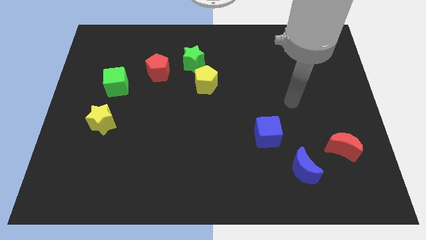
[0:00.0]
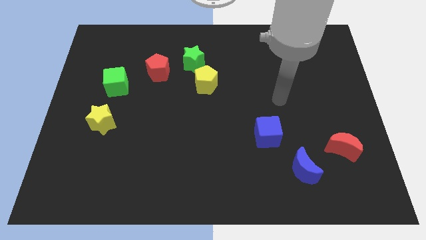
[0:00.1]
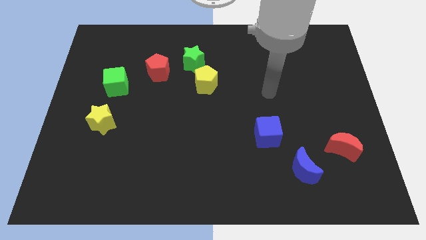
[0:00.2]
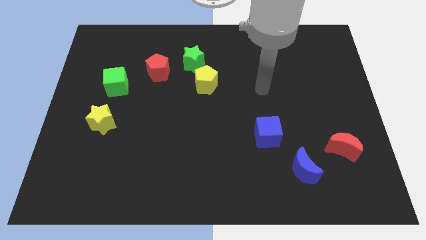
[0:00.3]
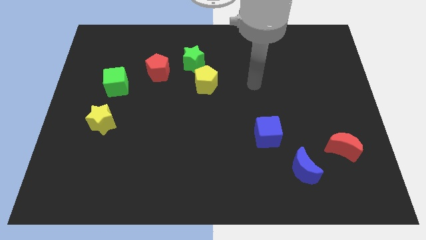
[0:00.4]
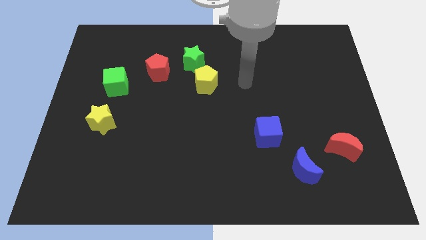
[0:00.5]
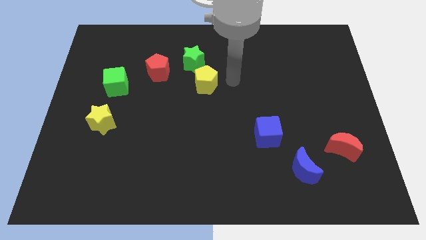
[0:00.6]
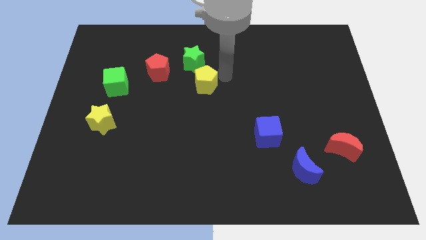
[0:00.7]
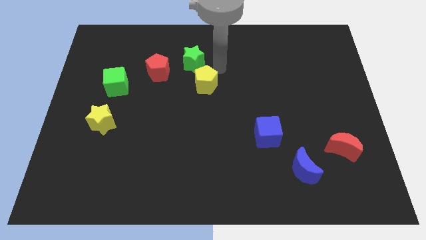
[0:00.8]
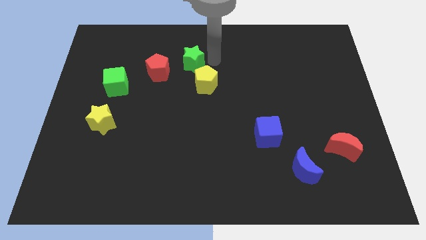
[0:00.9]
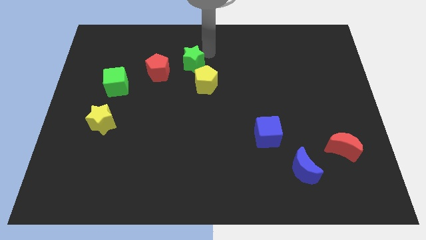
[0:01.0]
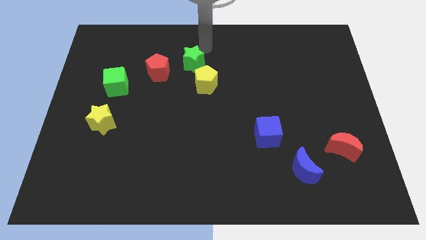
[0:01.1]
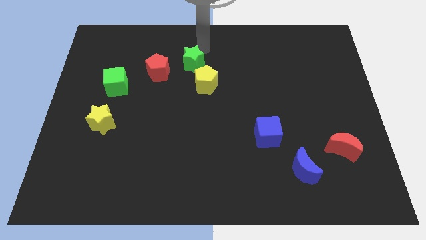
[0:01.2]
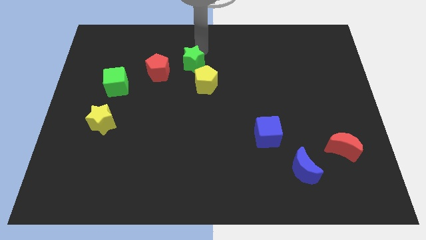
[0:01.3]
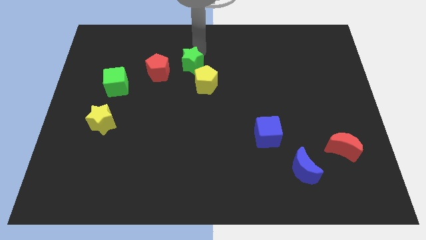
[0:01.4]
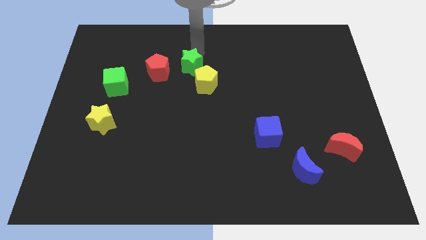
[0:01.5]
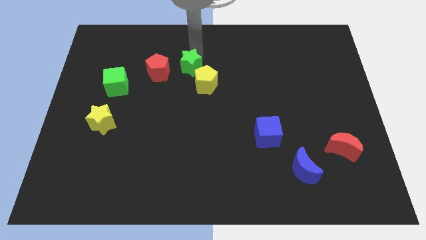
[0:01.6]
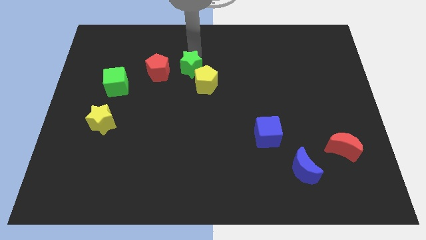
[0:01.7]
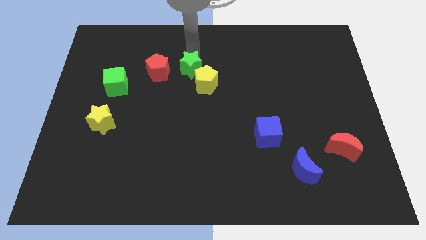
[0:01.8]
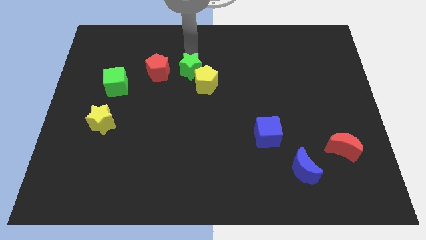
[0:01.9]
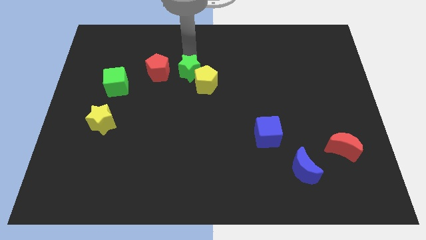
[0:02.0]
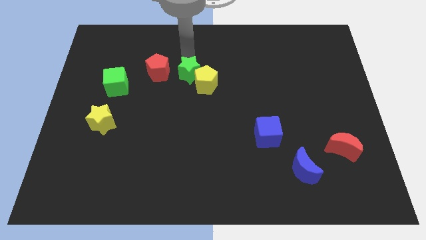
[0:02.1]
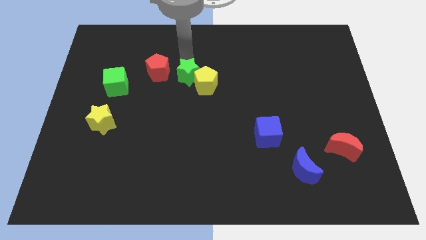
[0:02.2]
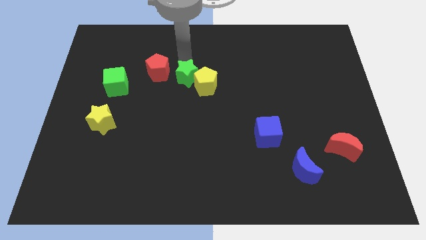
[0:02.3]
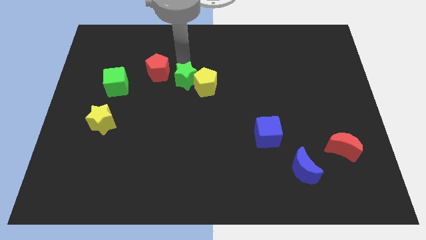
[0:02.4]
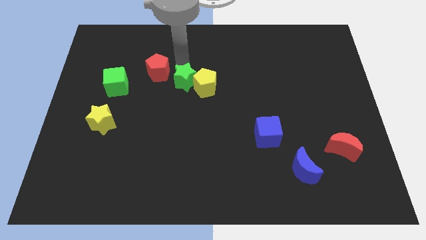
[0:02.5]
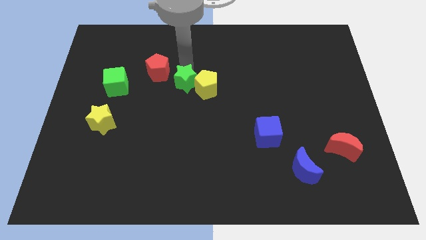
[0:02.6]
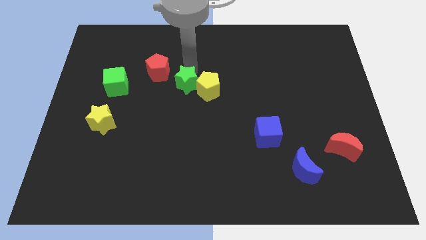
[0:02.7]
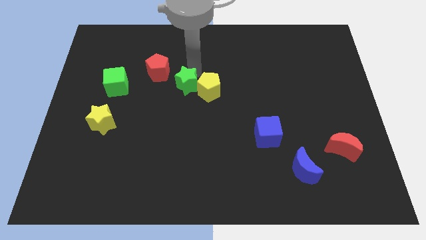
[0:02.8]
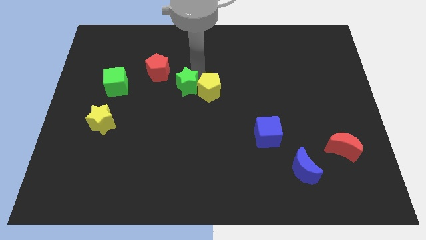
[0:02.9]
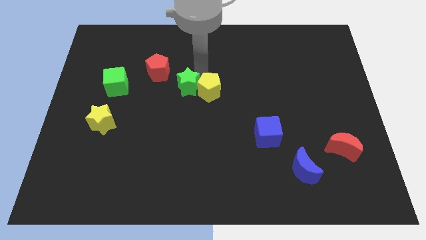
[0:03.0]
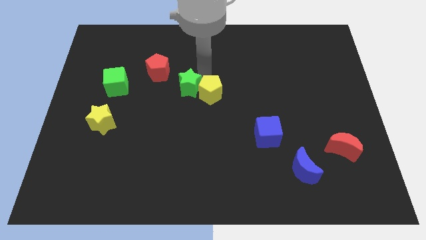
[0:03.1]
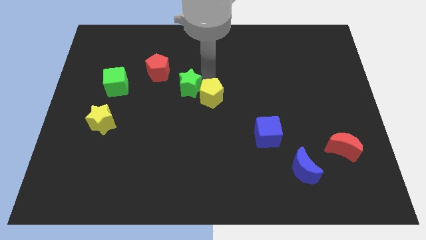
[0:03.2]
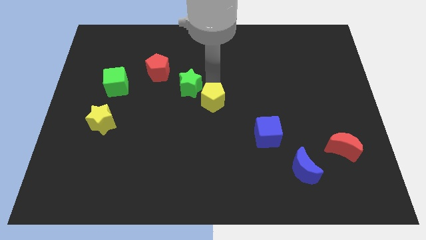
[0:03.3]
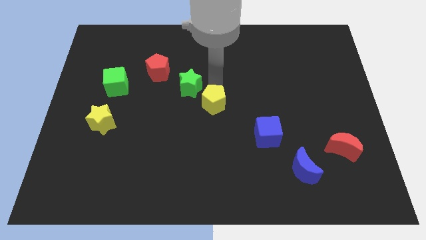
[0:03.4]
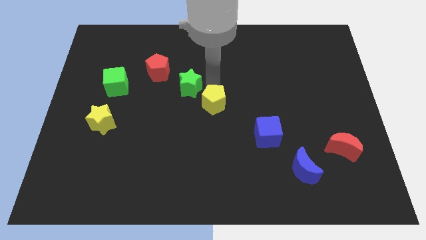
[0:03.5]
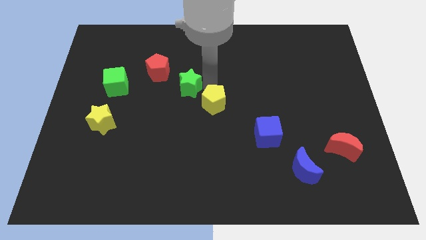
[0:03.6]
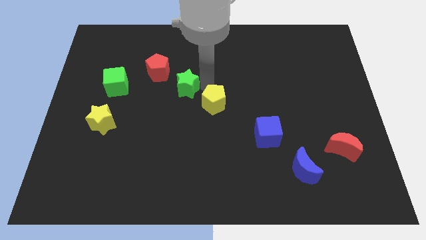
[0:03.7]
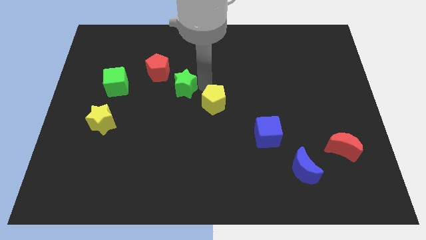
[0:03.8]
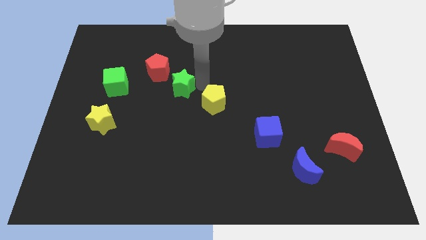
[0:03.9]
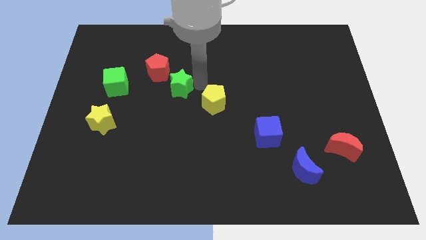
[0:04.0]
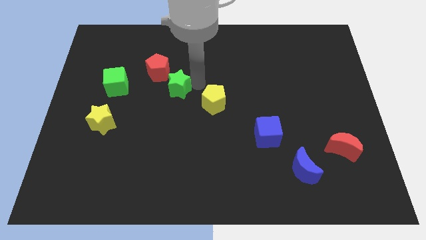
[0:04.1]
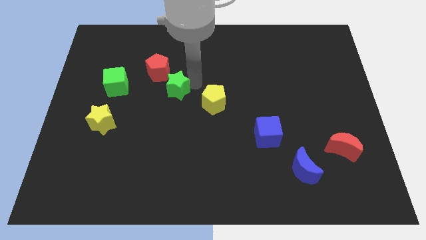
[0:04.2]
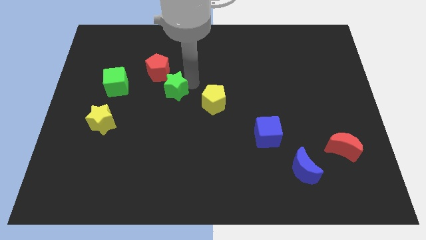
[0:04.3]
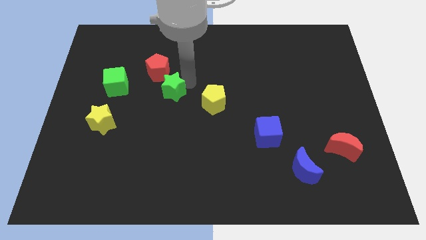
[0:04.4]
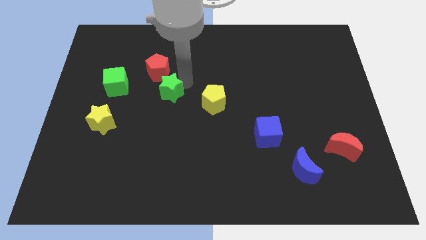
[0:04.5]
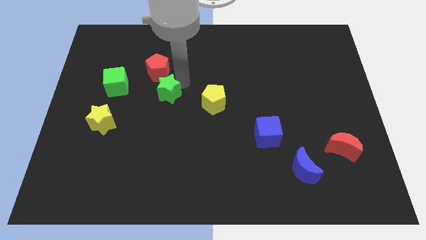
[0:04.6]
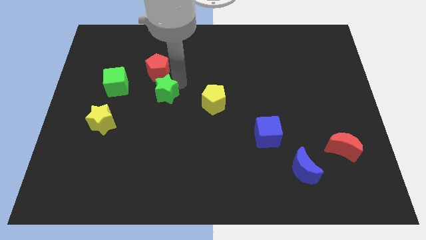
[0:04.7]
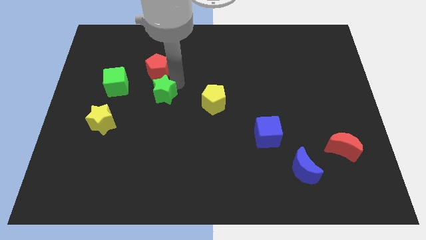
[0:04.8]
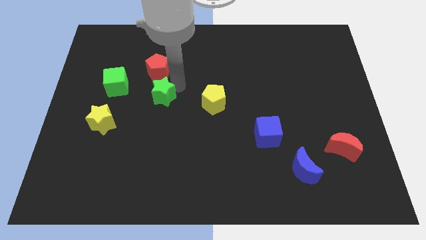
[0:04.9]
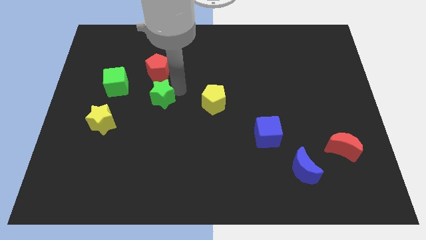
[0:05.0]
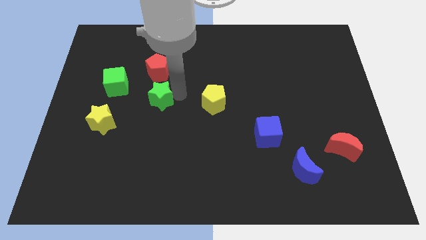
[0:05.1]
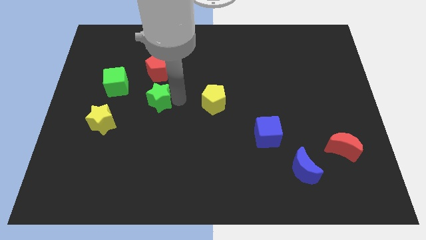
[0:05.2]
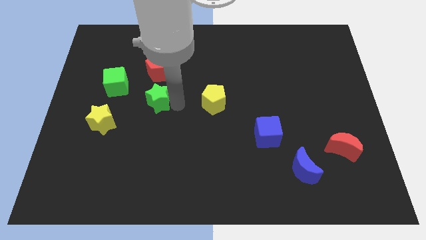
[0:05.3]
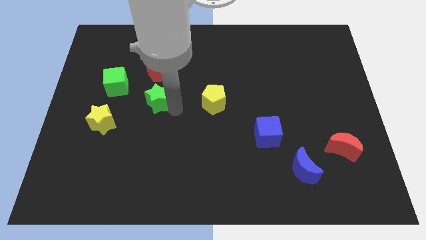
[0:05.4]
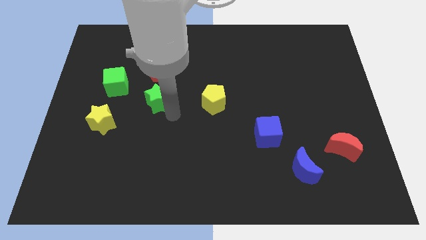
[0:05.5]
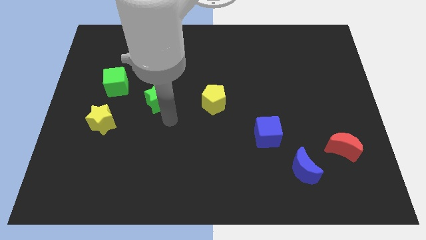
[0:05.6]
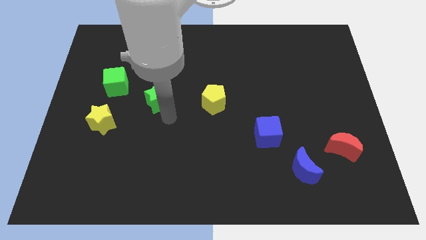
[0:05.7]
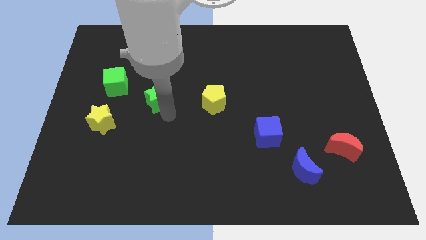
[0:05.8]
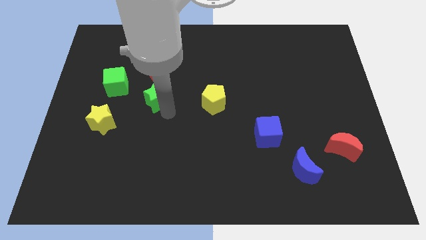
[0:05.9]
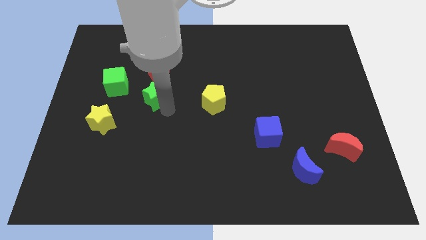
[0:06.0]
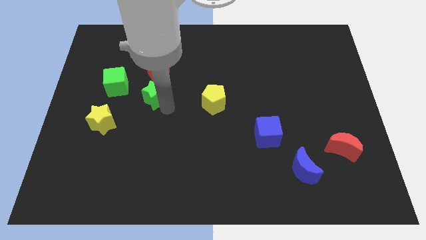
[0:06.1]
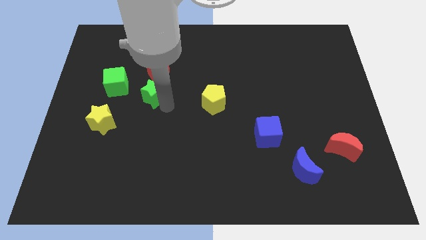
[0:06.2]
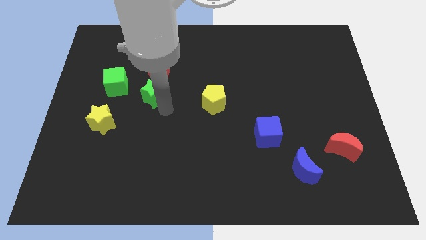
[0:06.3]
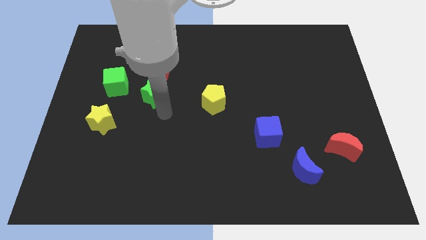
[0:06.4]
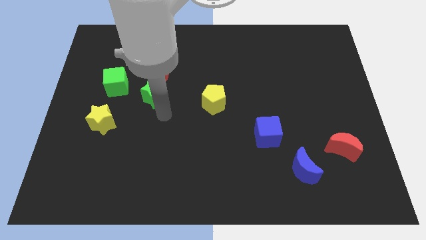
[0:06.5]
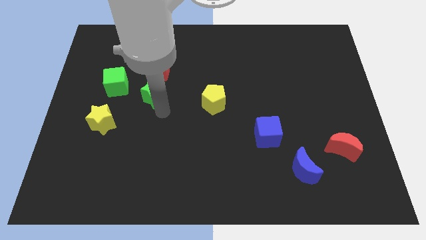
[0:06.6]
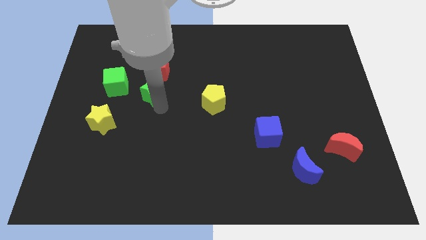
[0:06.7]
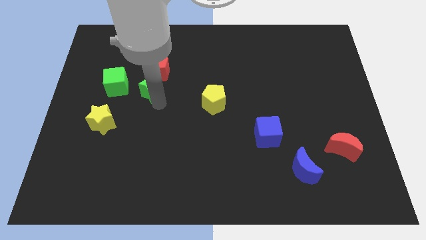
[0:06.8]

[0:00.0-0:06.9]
move the green star to the bottom left side of the red pentagon
